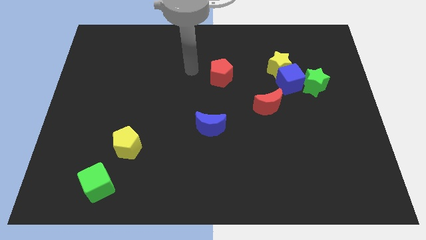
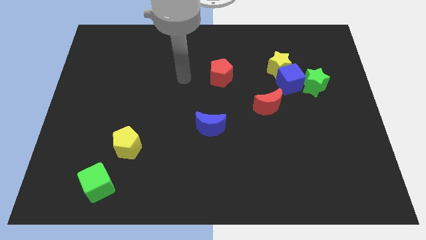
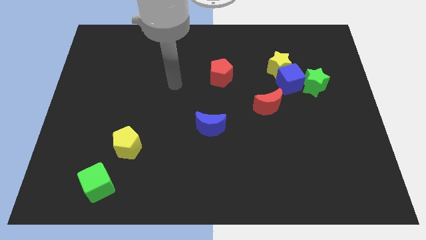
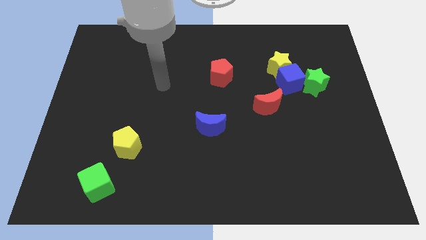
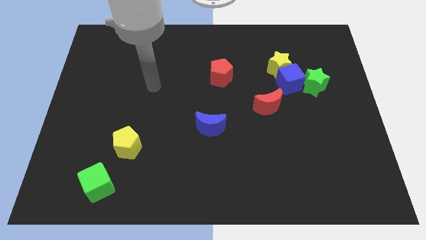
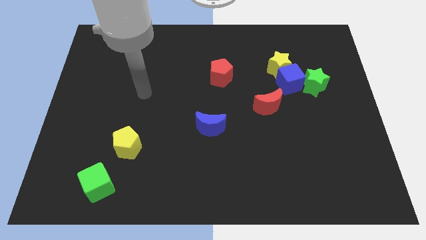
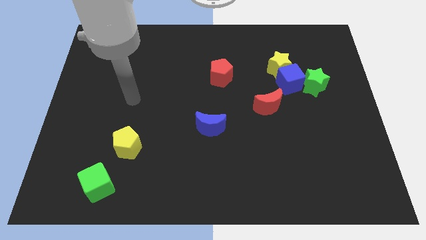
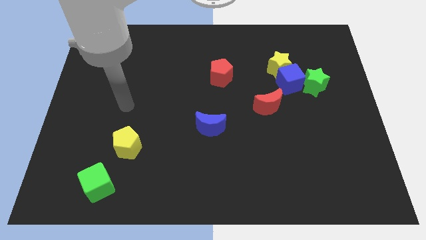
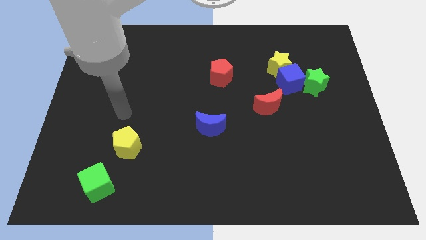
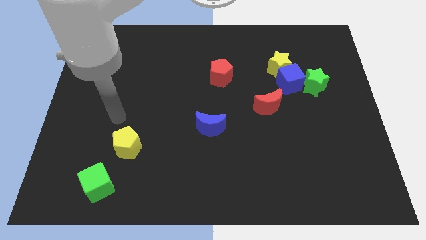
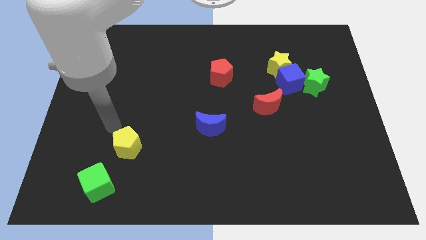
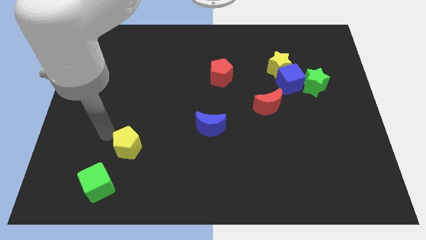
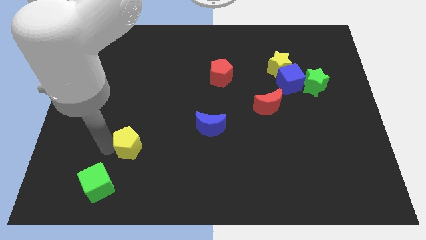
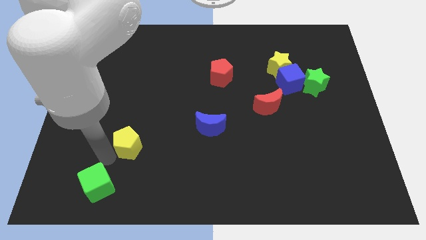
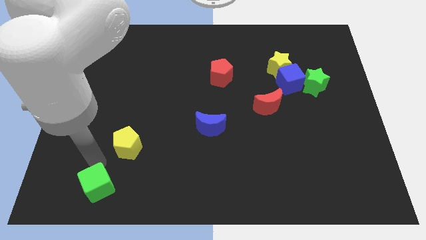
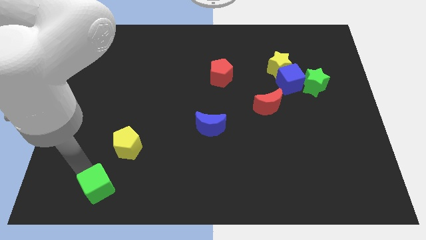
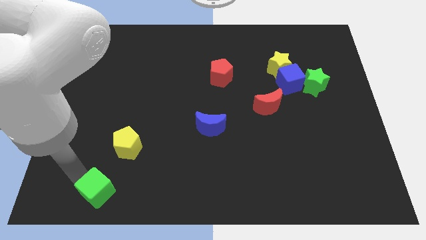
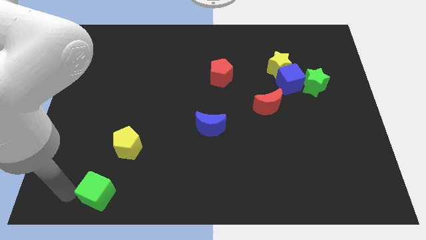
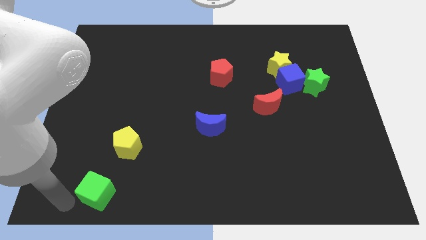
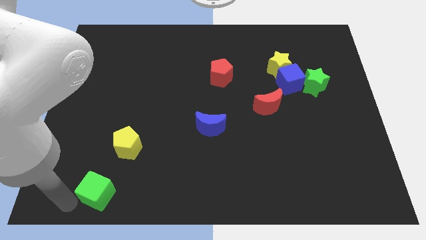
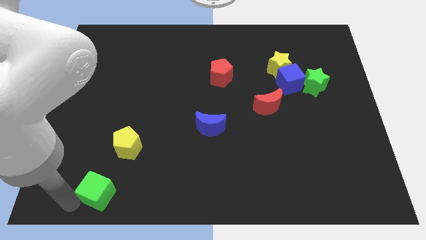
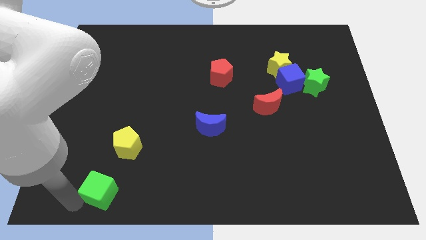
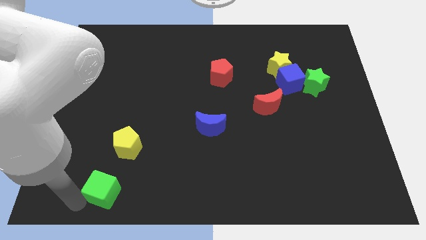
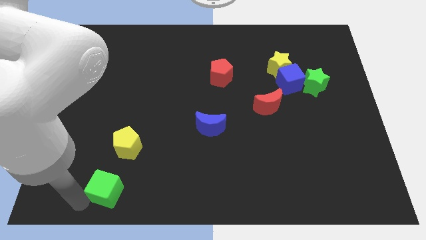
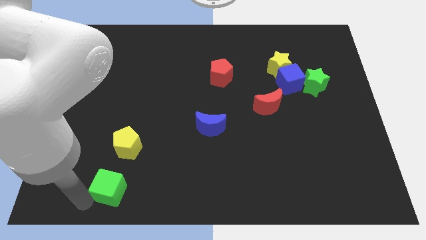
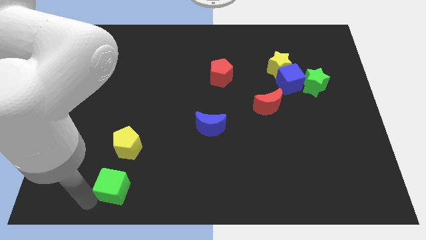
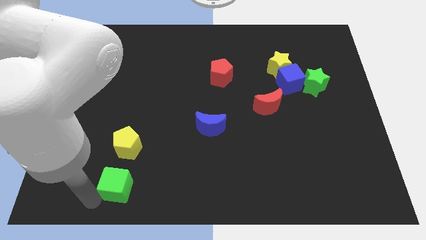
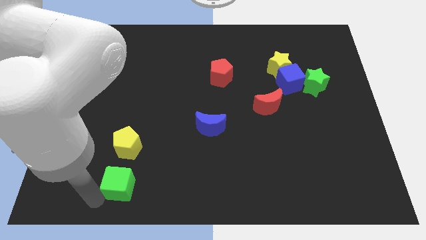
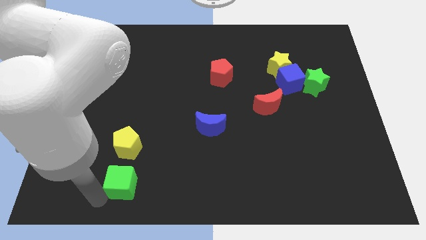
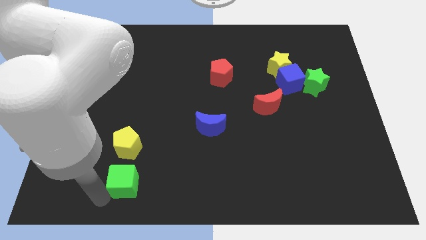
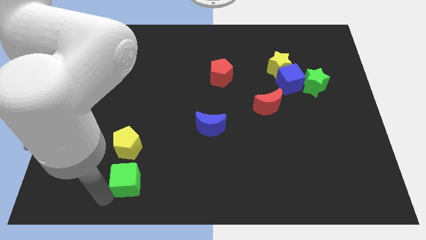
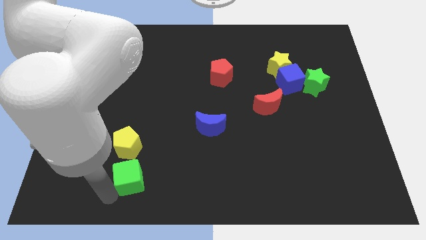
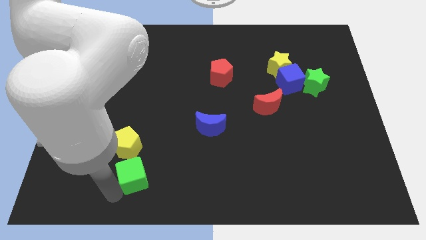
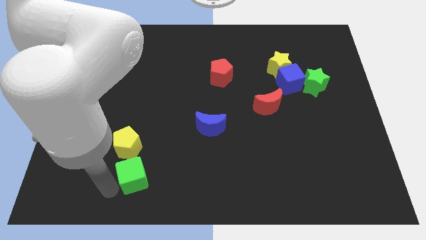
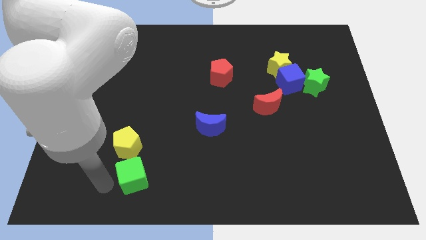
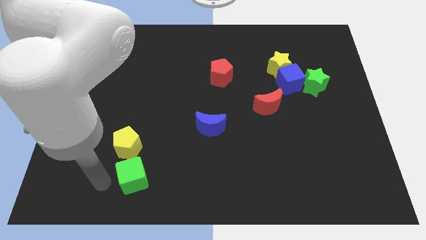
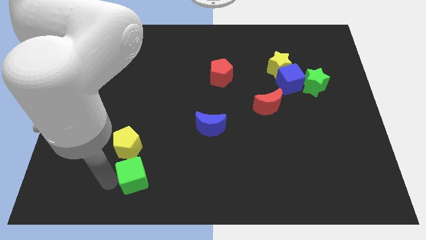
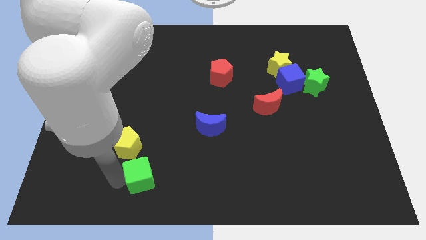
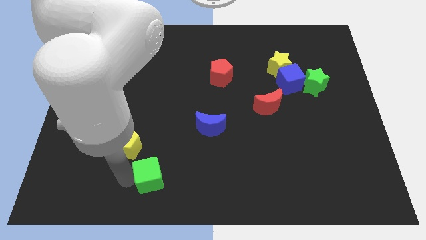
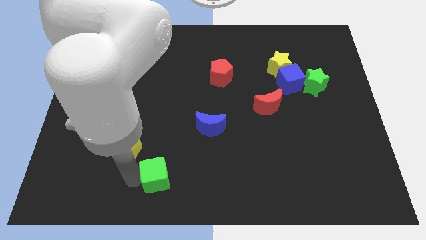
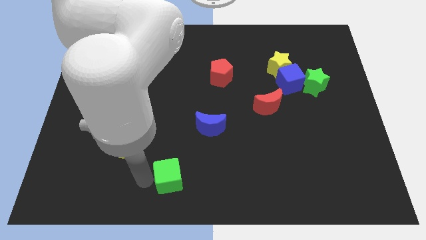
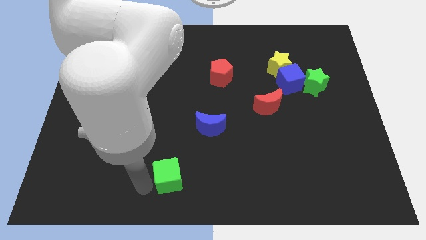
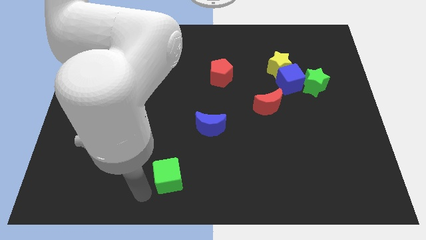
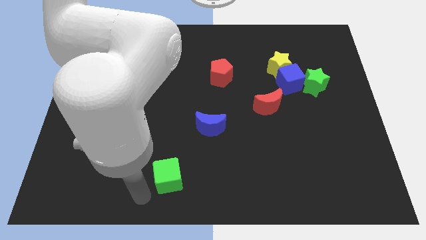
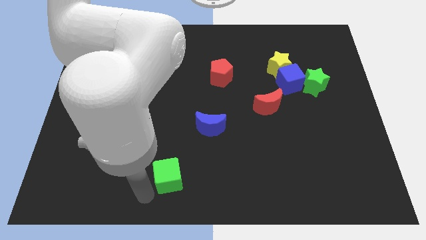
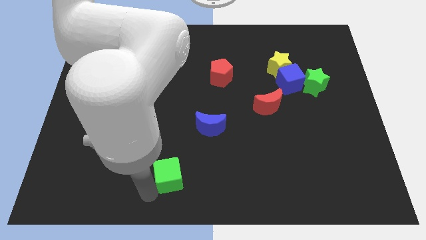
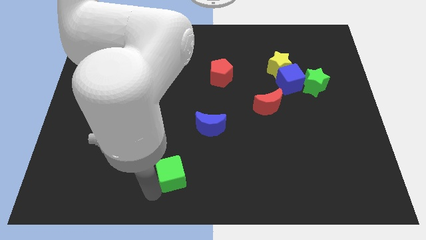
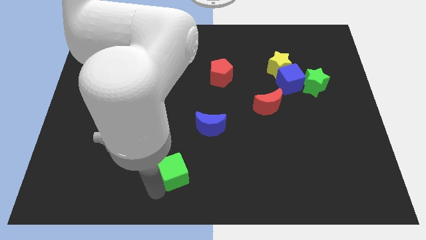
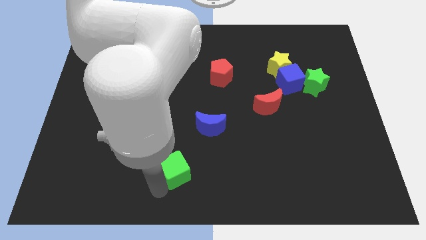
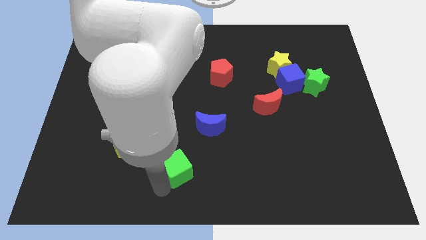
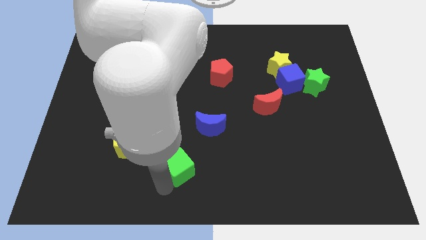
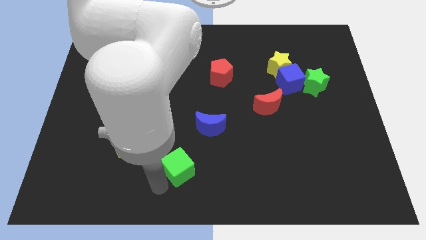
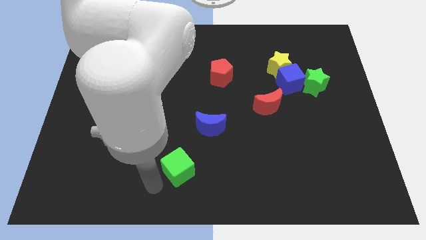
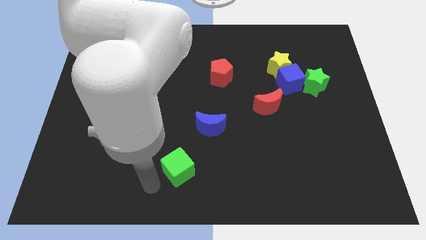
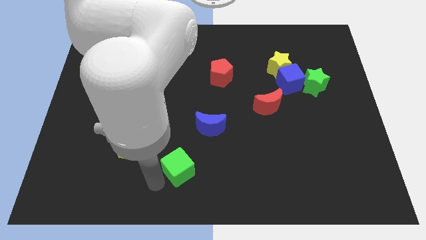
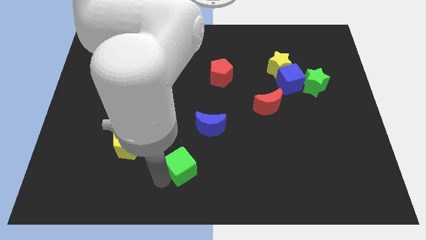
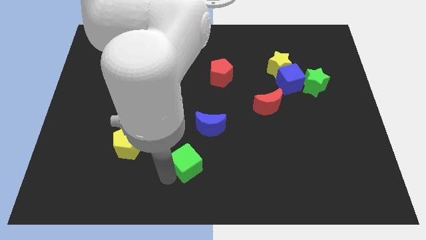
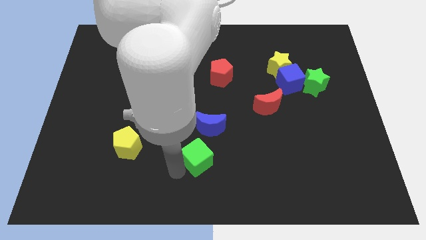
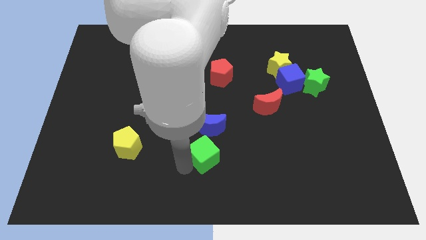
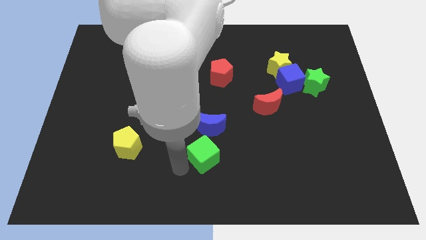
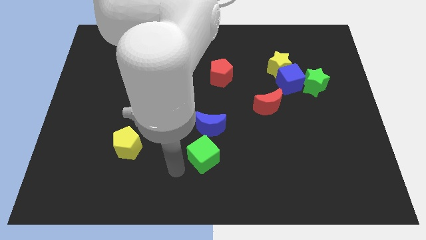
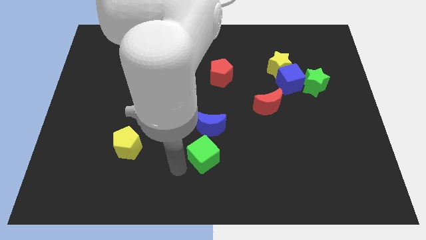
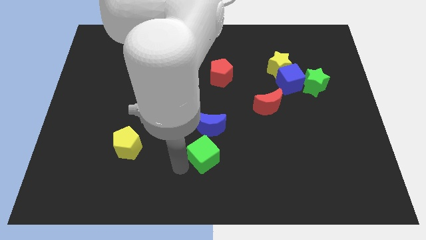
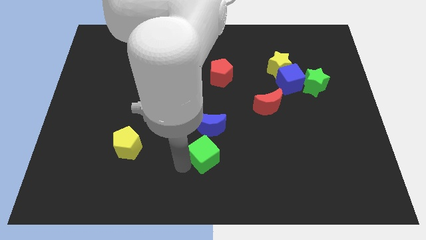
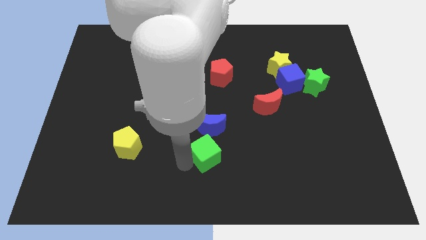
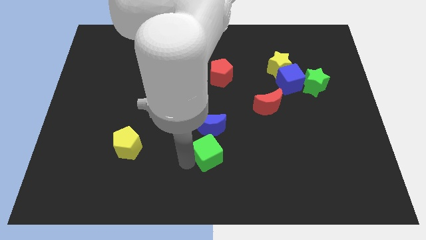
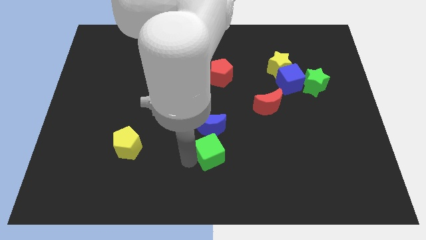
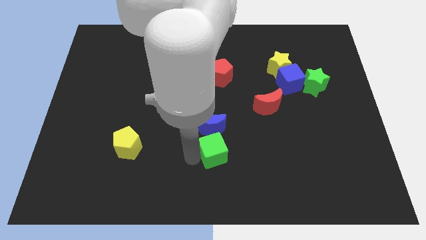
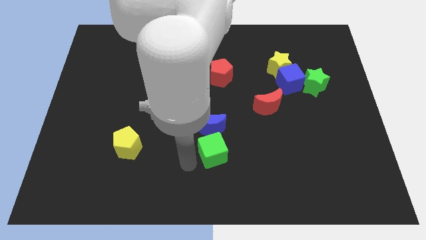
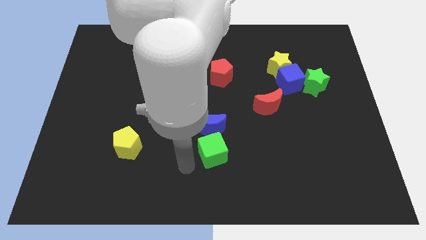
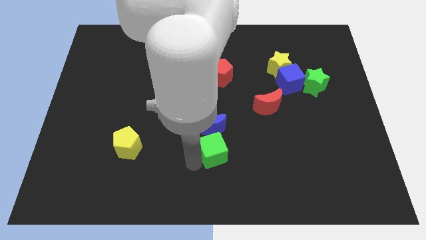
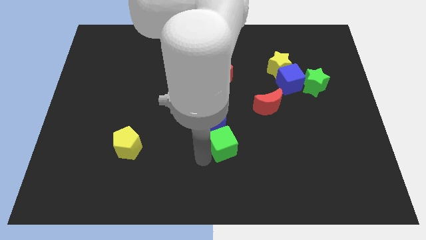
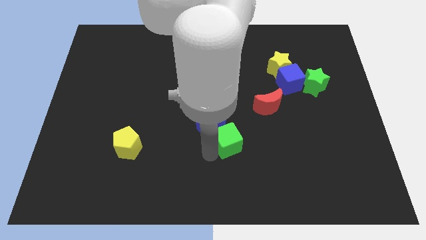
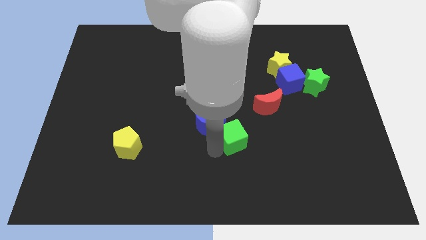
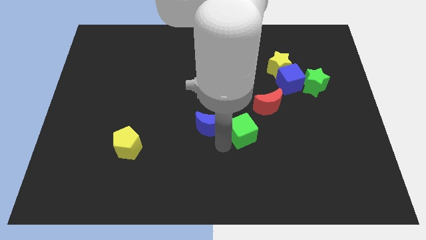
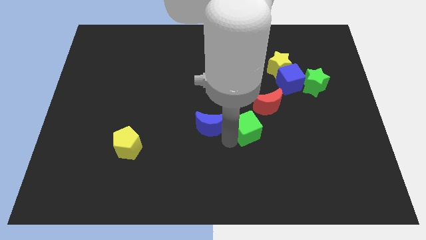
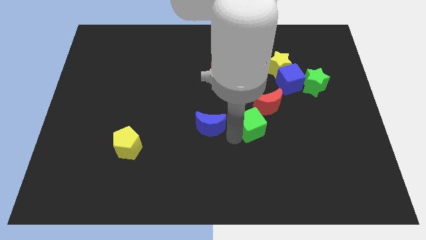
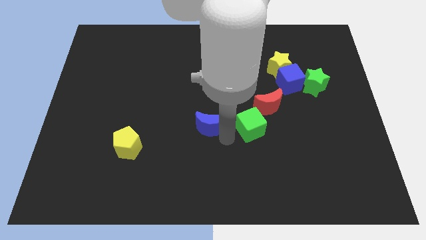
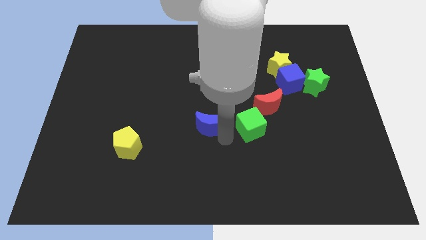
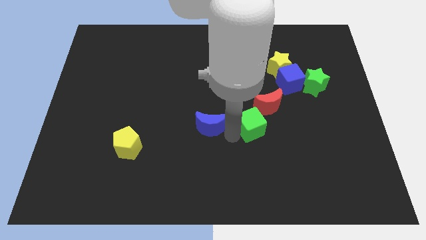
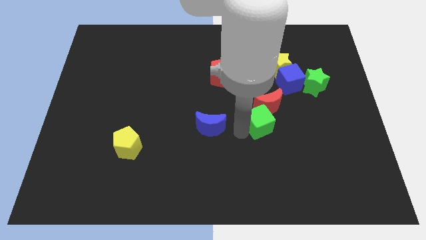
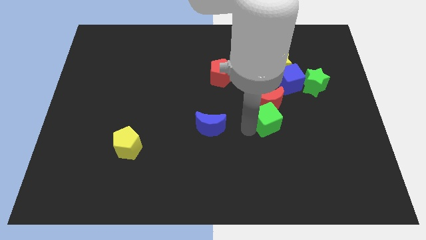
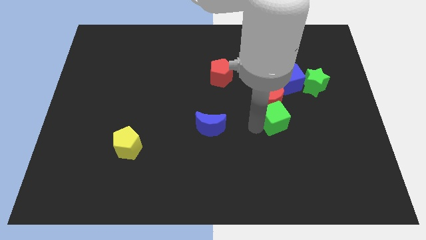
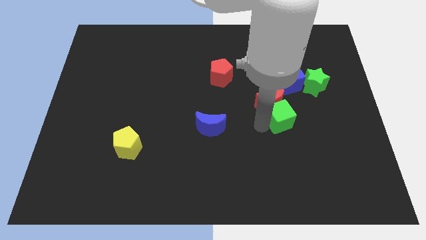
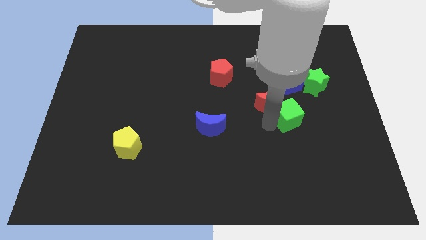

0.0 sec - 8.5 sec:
put the green cube to the bottom left side of the green star

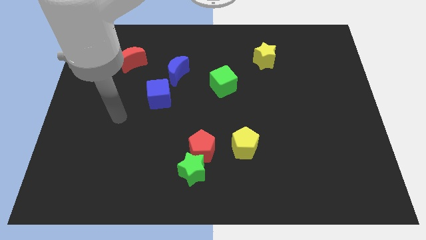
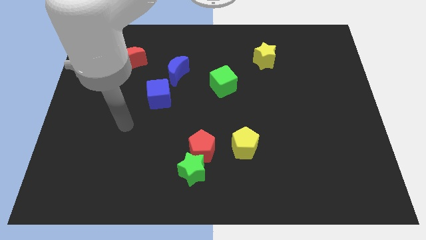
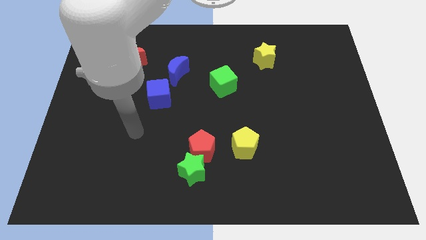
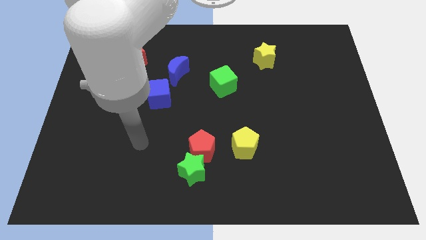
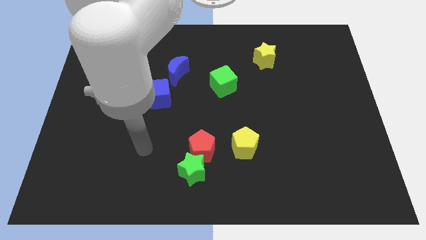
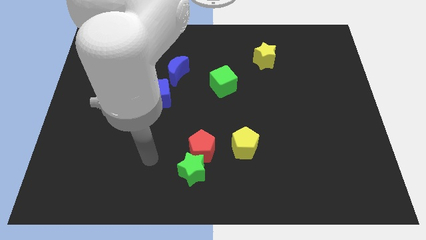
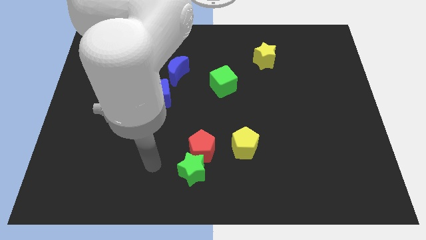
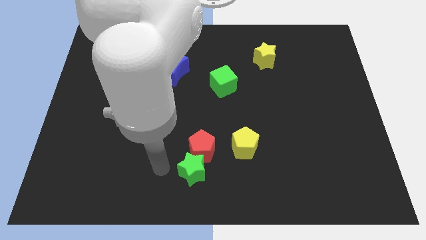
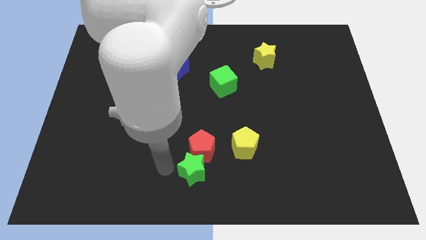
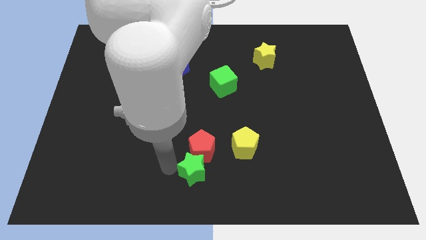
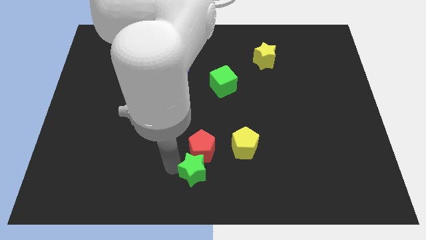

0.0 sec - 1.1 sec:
put the green star to the bottom right side of the red pentagon
